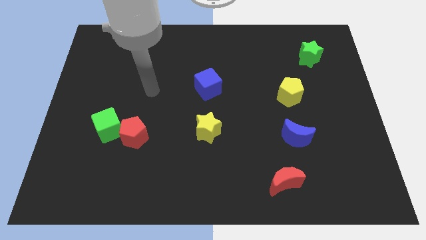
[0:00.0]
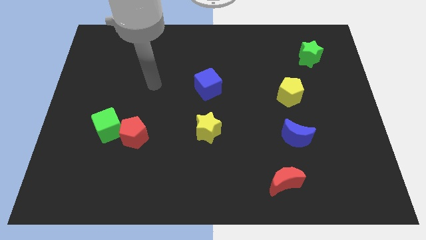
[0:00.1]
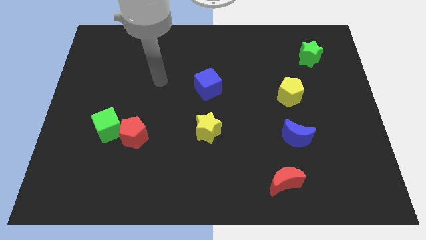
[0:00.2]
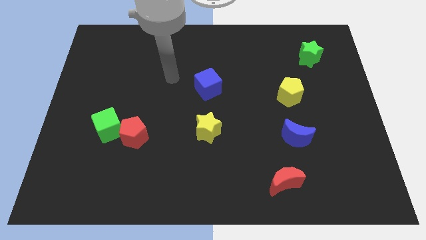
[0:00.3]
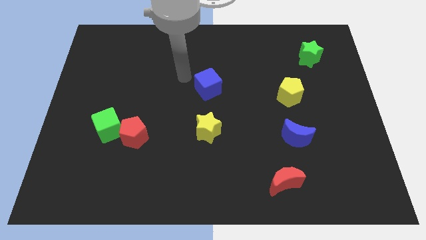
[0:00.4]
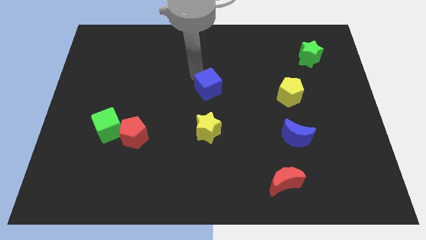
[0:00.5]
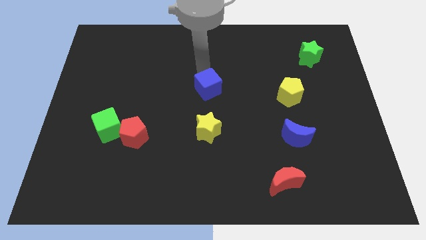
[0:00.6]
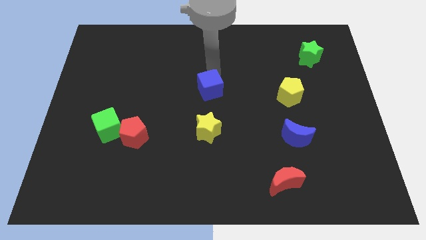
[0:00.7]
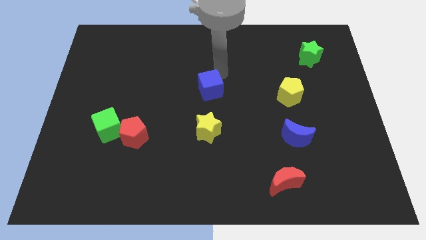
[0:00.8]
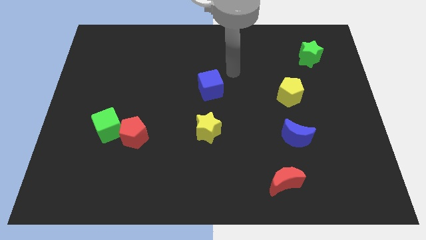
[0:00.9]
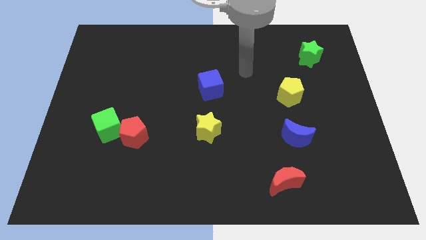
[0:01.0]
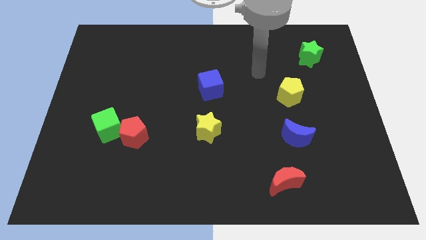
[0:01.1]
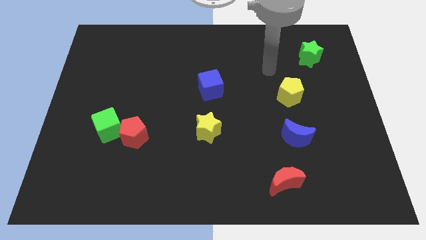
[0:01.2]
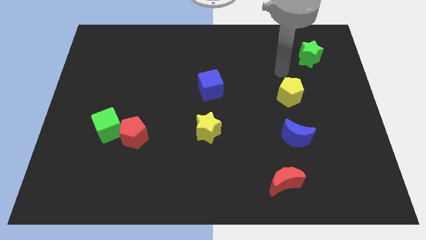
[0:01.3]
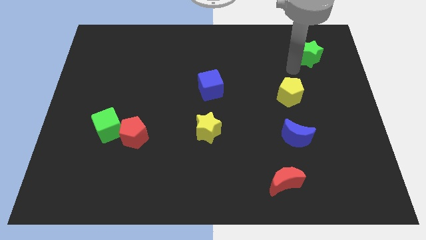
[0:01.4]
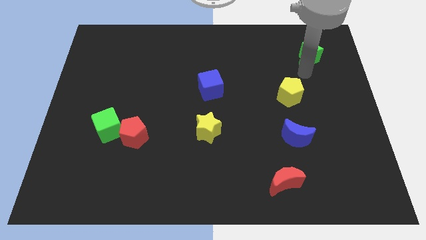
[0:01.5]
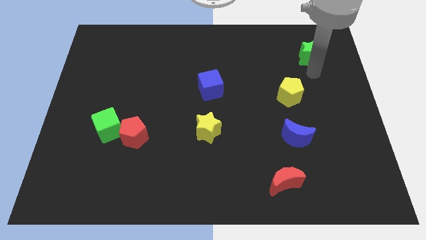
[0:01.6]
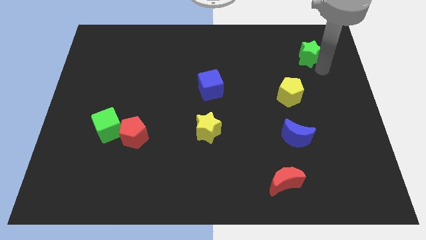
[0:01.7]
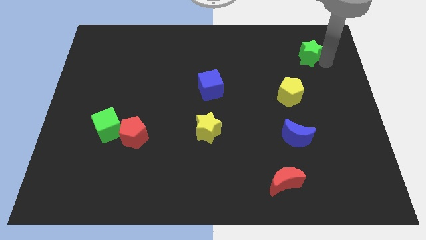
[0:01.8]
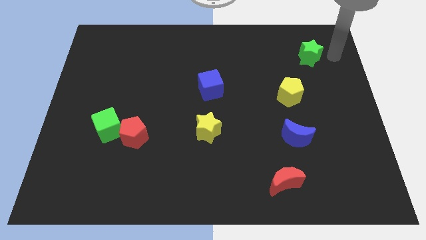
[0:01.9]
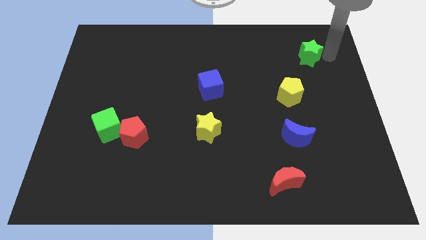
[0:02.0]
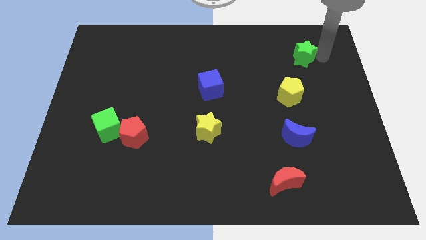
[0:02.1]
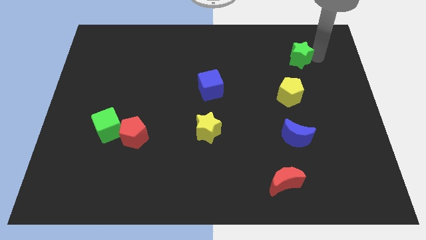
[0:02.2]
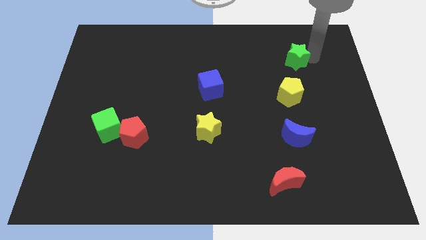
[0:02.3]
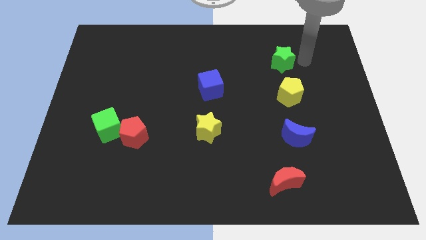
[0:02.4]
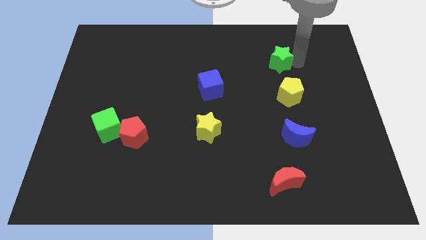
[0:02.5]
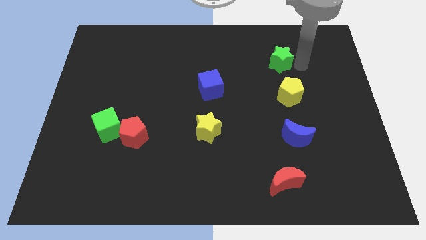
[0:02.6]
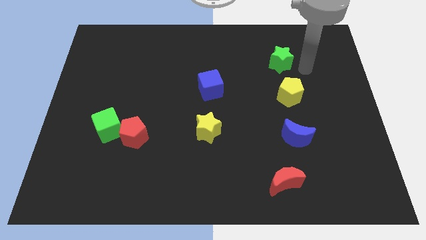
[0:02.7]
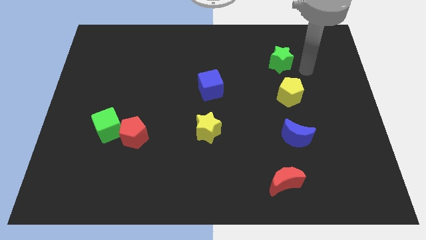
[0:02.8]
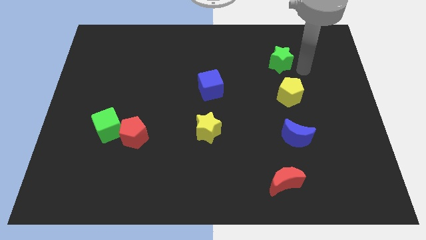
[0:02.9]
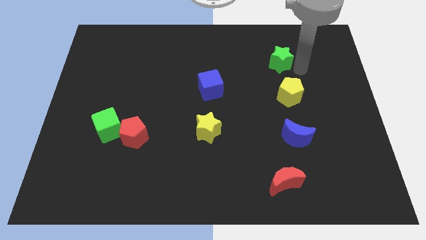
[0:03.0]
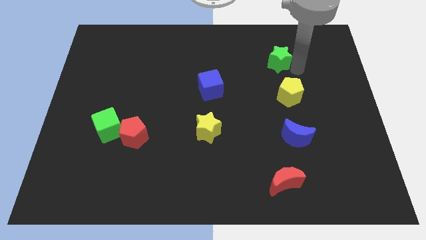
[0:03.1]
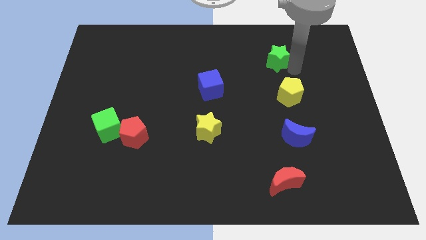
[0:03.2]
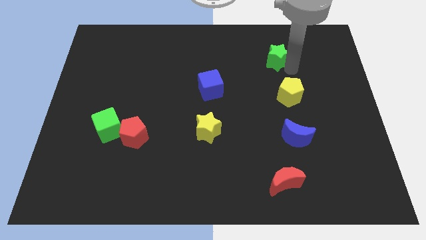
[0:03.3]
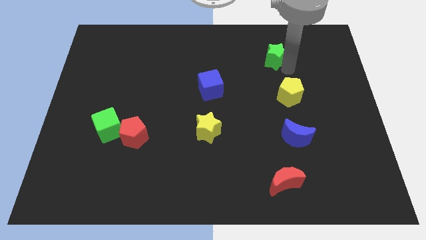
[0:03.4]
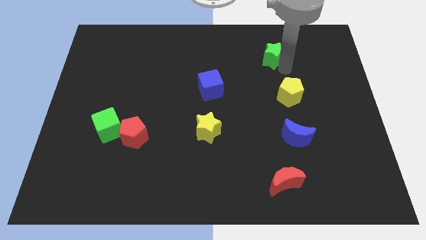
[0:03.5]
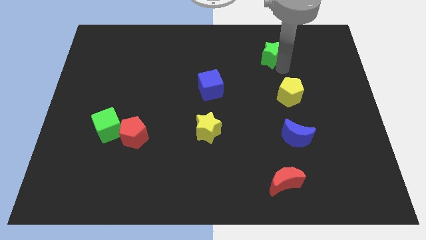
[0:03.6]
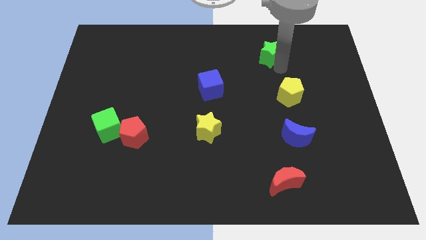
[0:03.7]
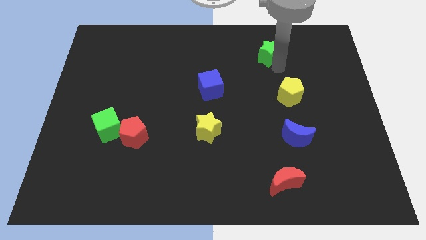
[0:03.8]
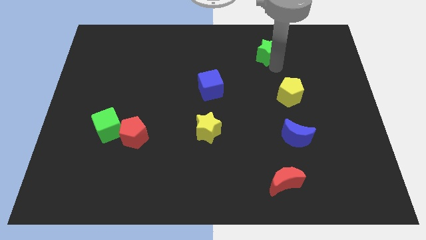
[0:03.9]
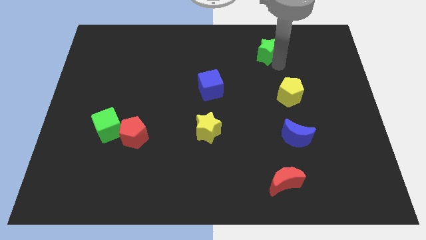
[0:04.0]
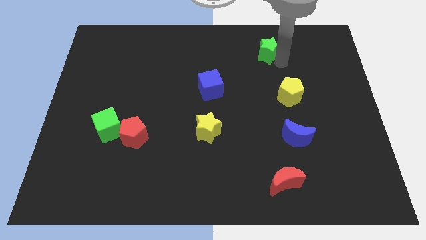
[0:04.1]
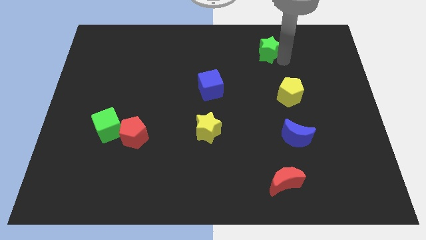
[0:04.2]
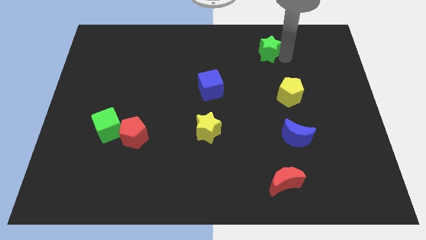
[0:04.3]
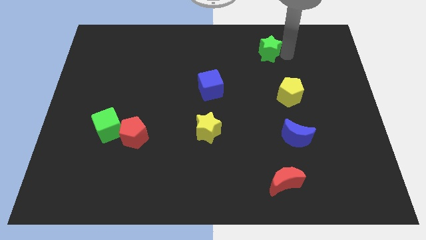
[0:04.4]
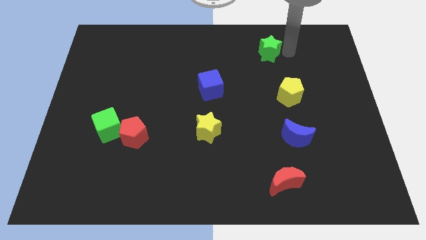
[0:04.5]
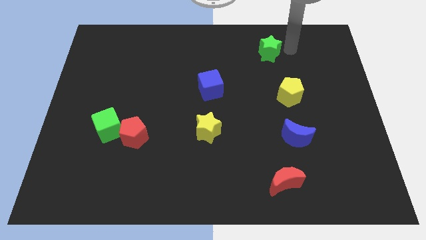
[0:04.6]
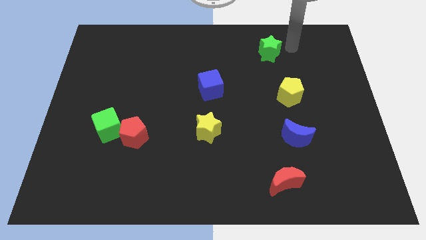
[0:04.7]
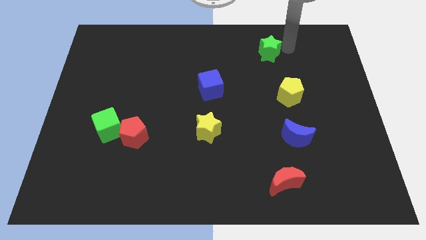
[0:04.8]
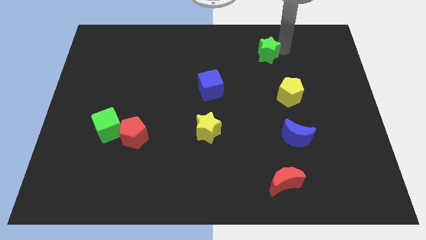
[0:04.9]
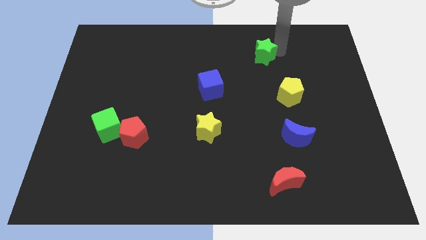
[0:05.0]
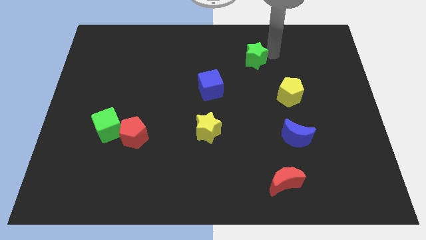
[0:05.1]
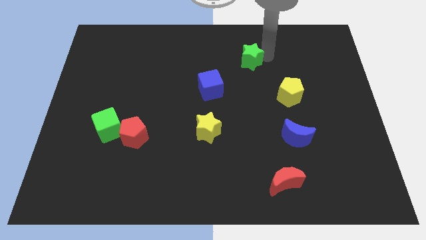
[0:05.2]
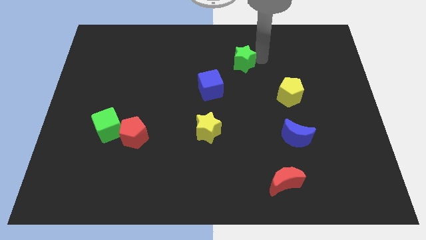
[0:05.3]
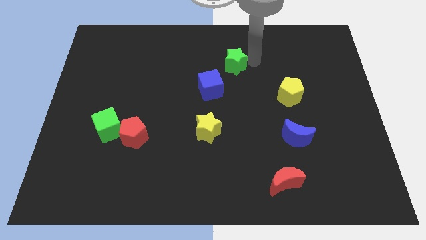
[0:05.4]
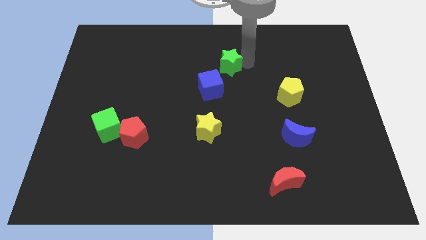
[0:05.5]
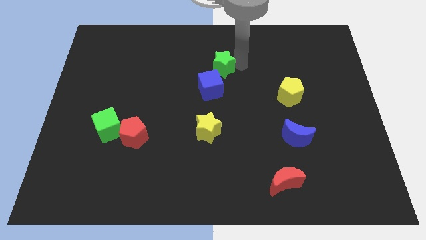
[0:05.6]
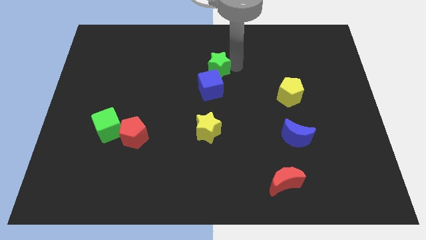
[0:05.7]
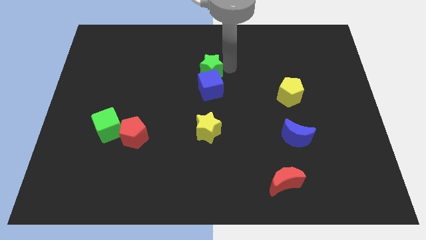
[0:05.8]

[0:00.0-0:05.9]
push the green star to the top left side of the blue cube

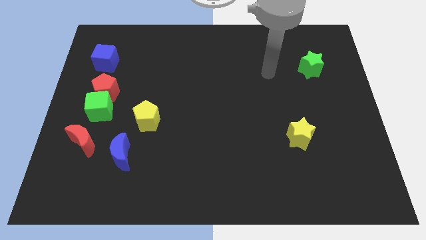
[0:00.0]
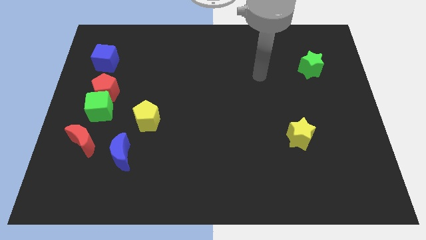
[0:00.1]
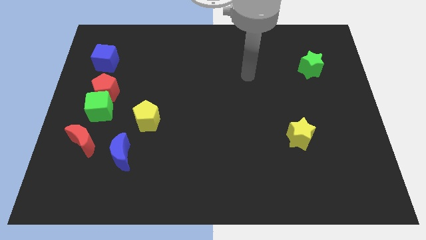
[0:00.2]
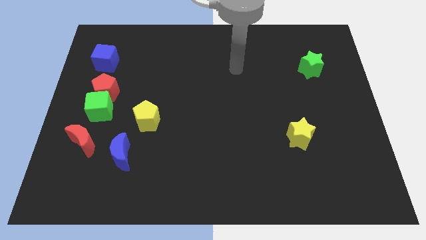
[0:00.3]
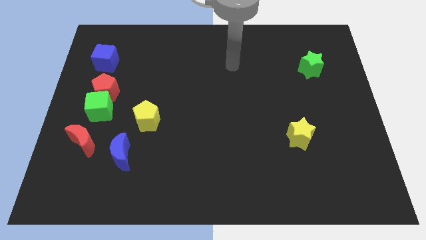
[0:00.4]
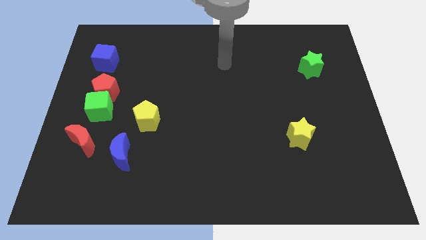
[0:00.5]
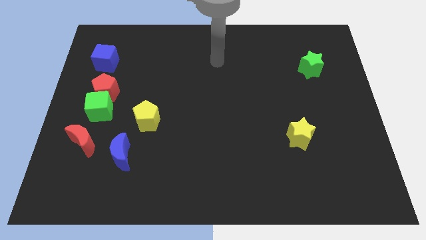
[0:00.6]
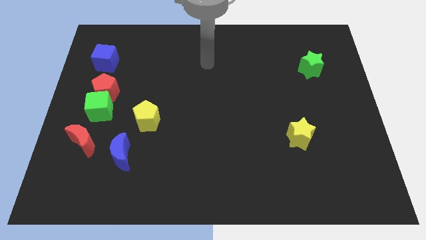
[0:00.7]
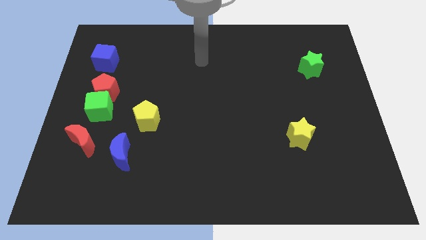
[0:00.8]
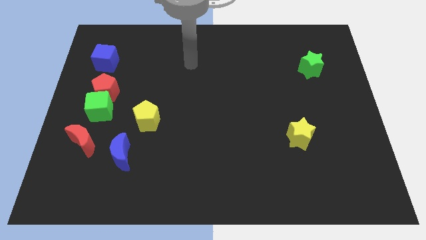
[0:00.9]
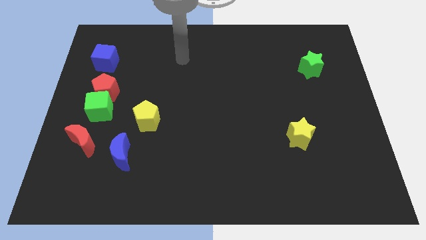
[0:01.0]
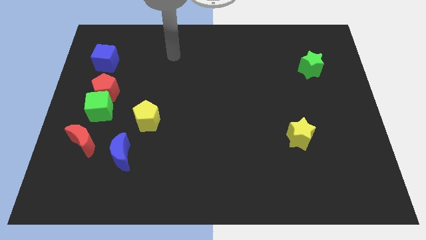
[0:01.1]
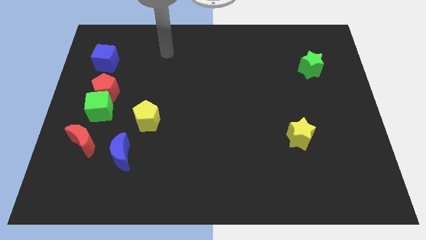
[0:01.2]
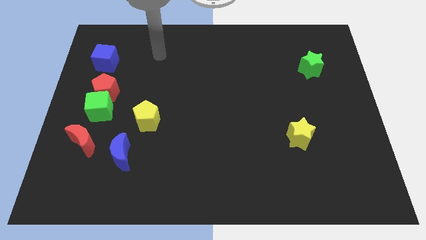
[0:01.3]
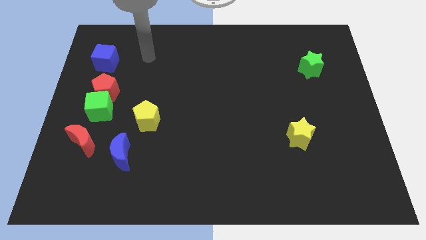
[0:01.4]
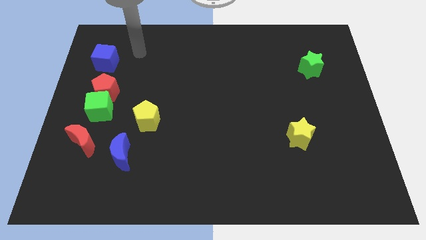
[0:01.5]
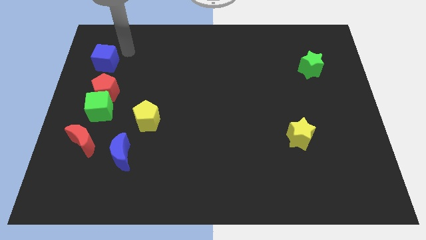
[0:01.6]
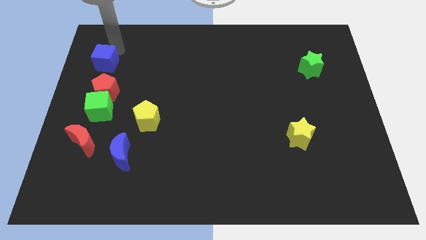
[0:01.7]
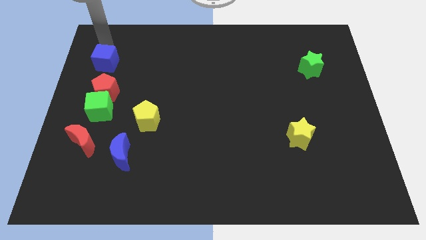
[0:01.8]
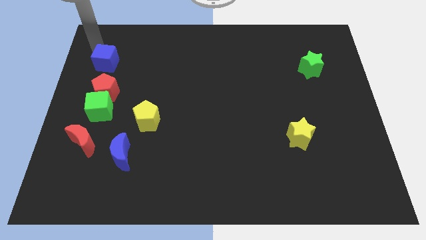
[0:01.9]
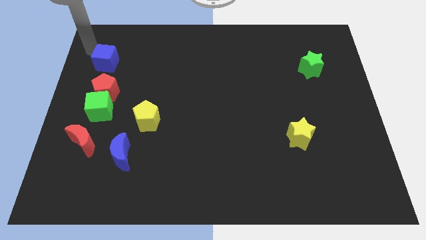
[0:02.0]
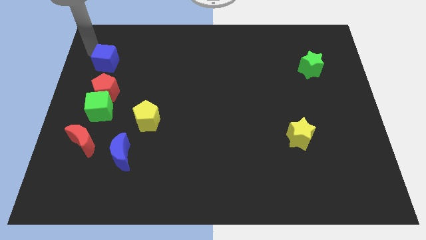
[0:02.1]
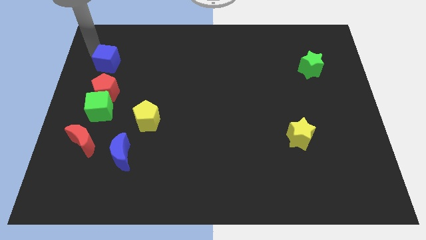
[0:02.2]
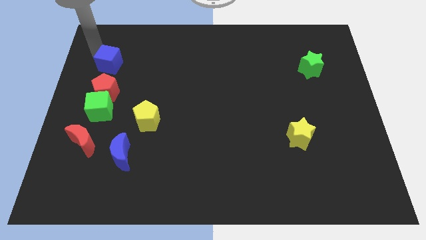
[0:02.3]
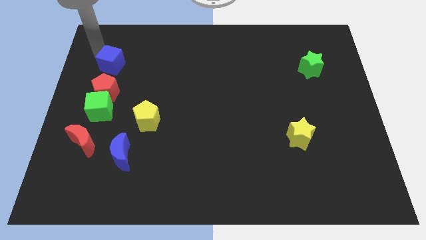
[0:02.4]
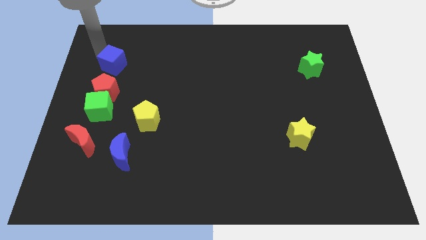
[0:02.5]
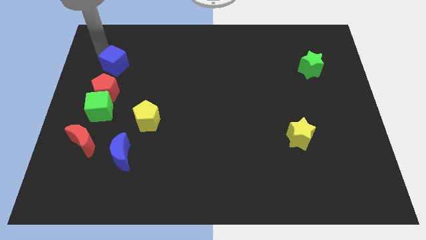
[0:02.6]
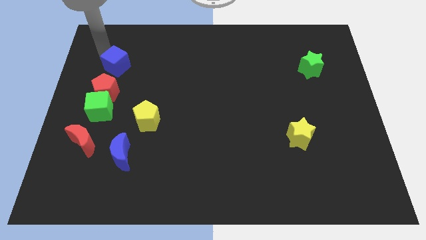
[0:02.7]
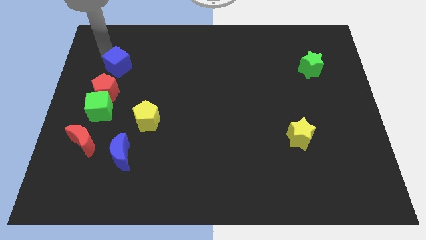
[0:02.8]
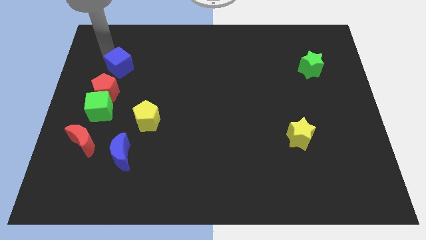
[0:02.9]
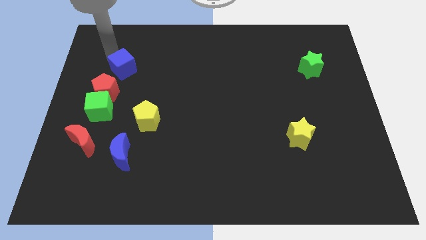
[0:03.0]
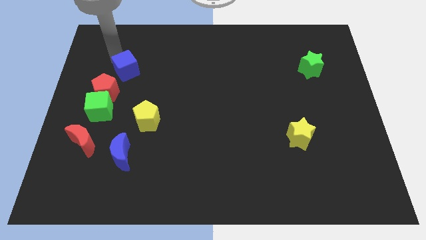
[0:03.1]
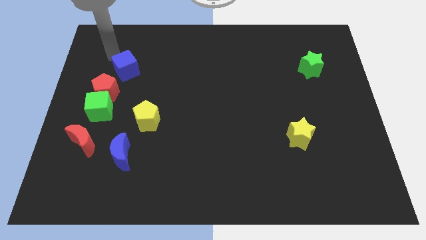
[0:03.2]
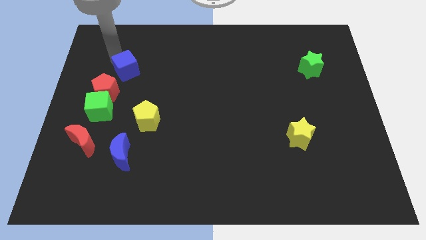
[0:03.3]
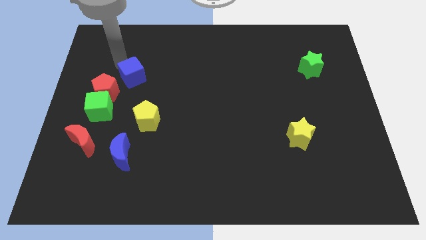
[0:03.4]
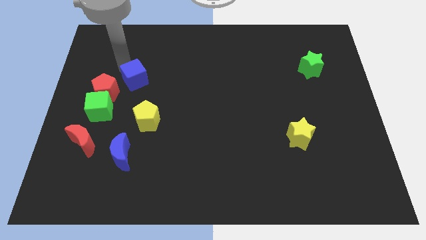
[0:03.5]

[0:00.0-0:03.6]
move the blue cube to the right of the red pentagon
